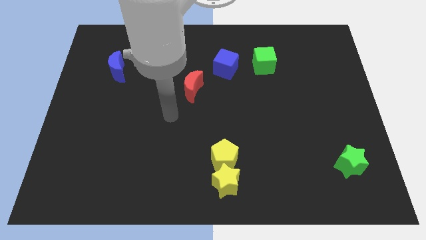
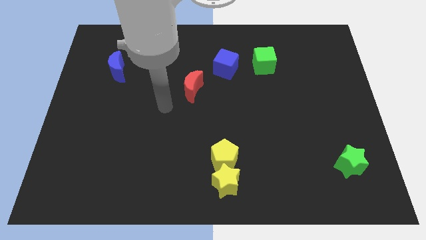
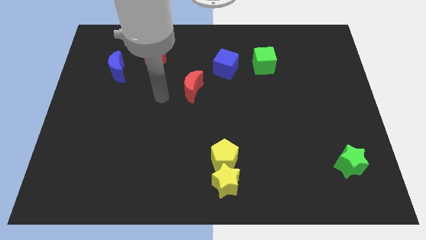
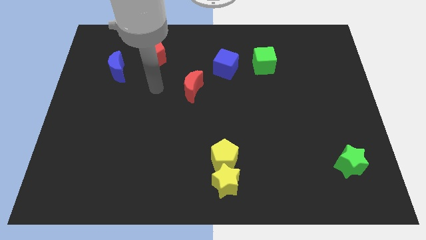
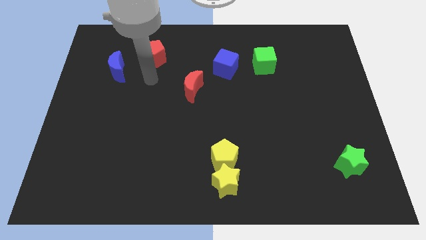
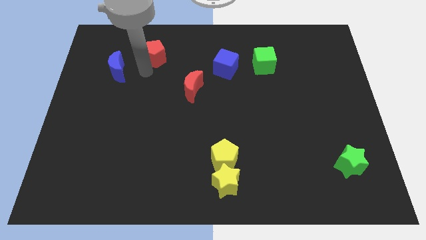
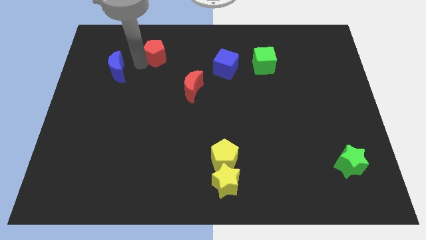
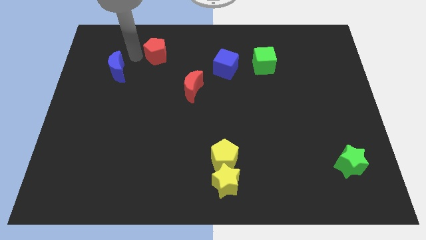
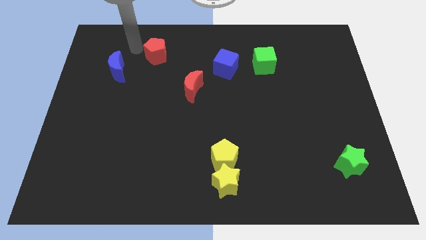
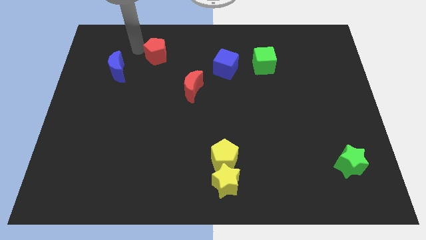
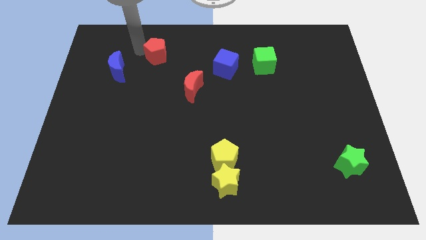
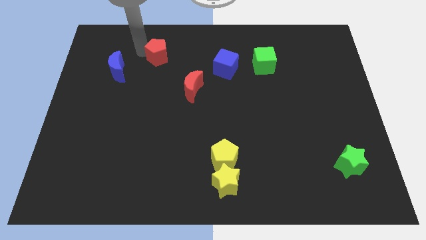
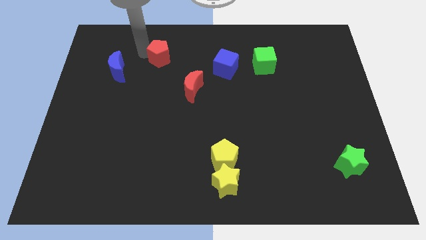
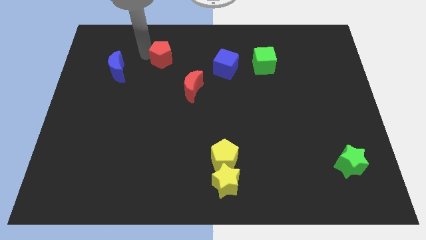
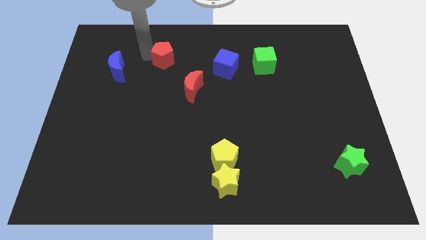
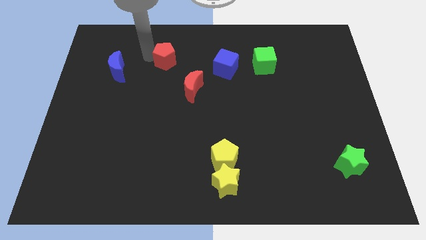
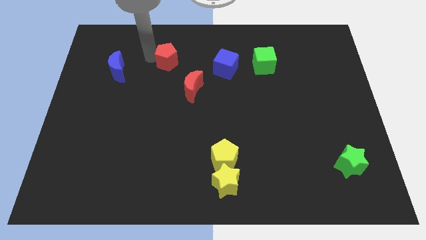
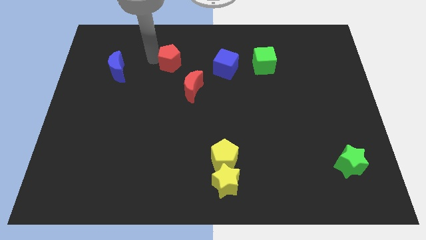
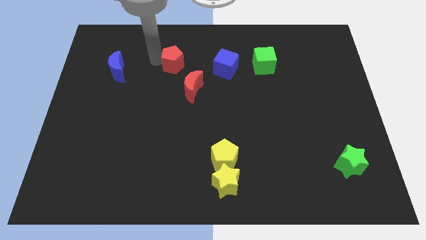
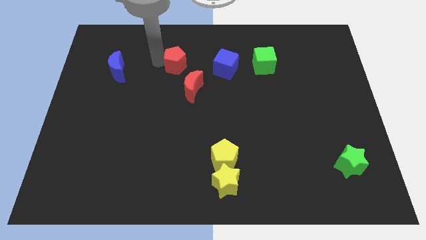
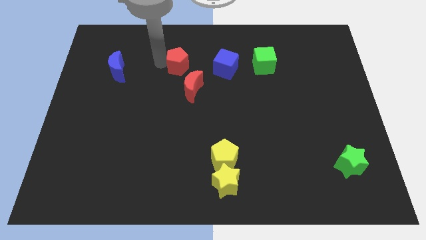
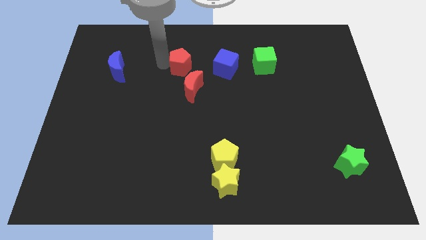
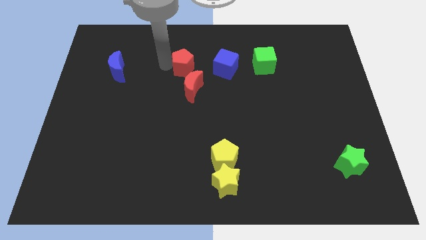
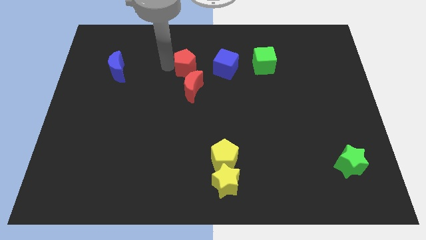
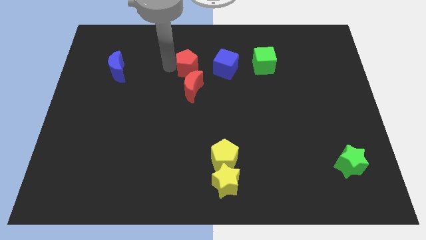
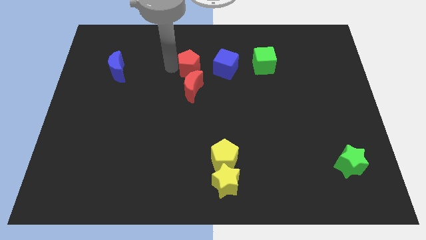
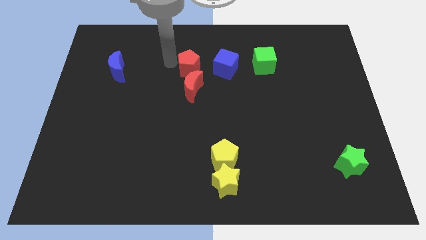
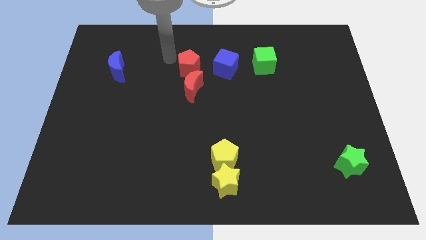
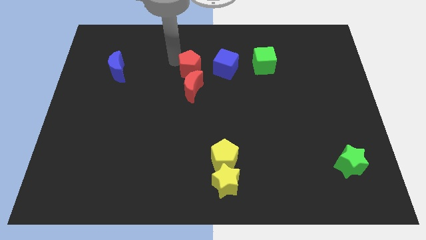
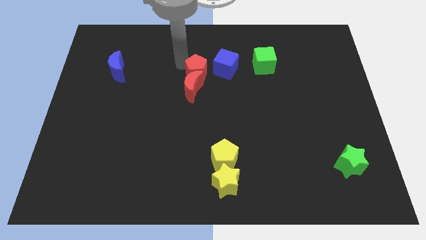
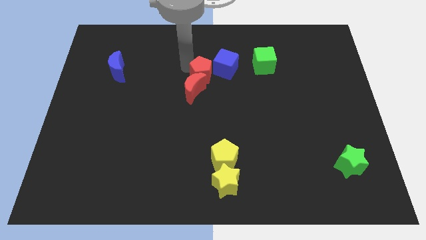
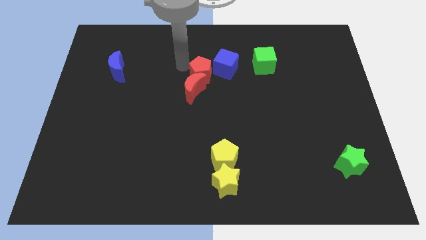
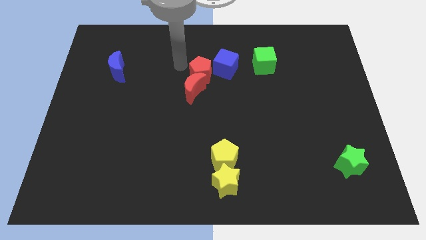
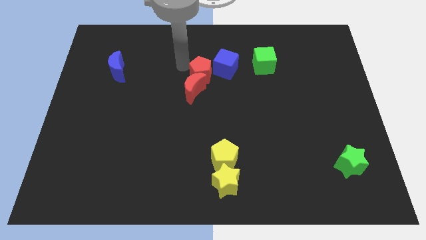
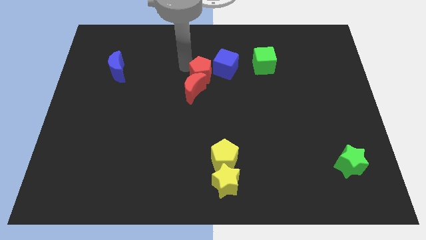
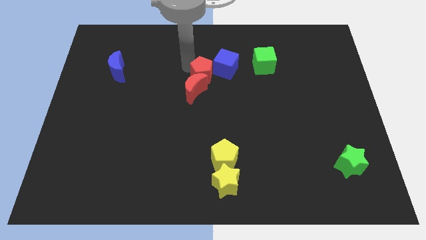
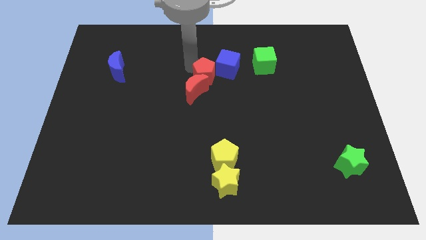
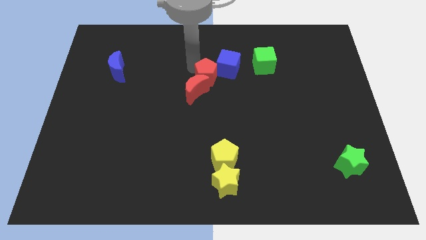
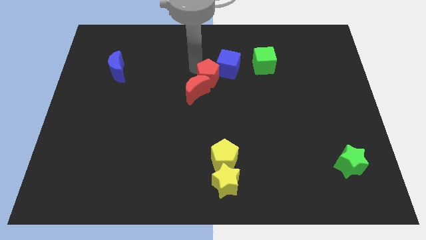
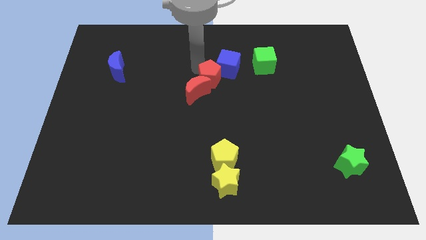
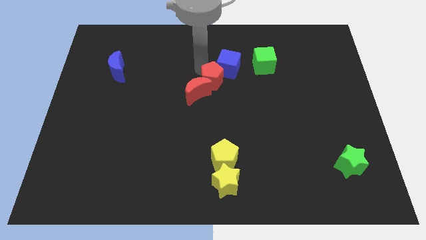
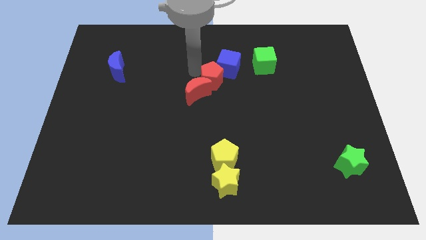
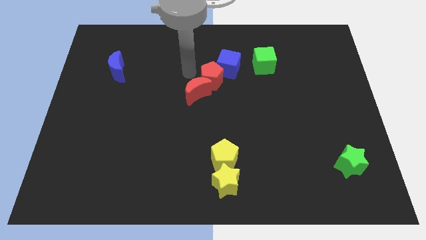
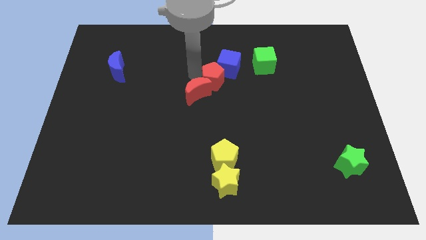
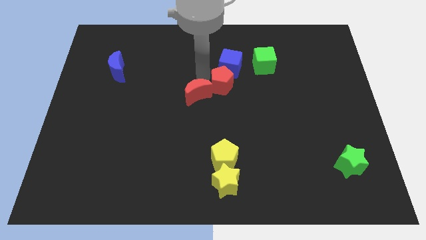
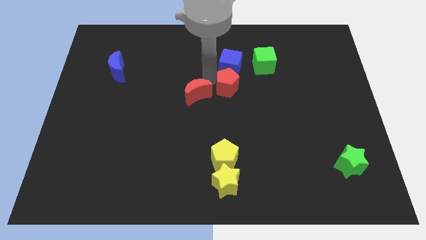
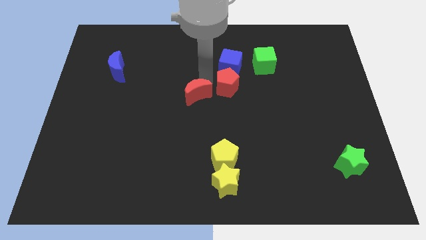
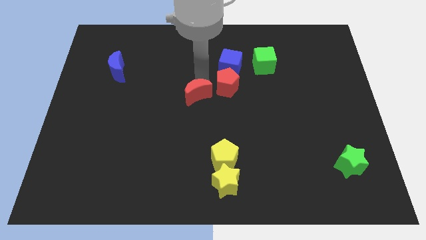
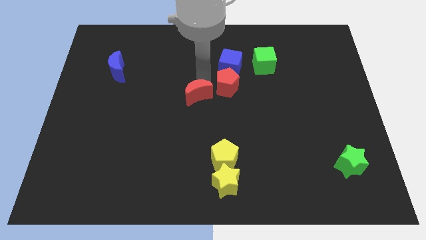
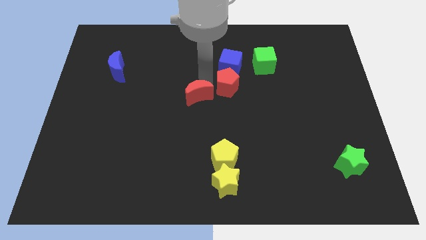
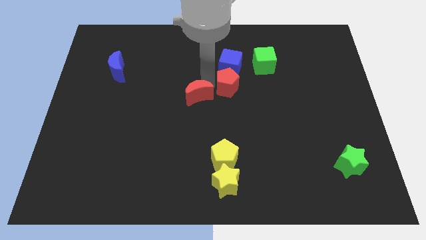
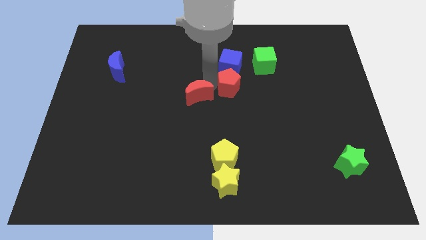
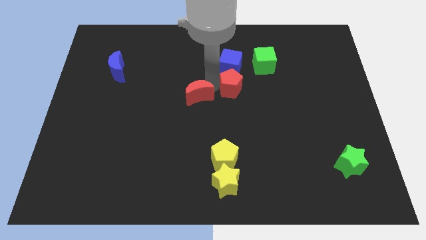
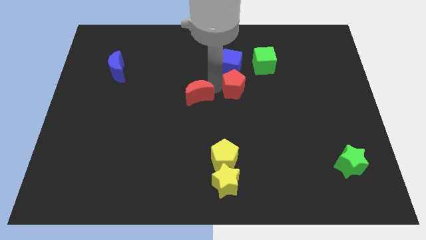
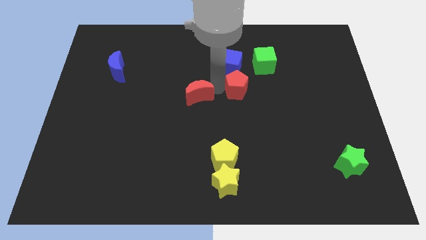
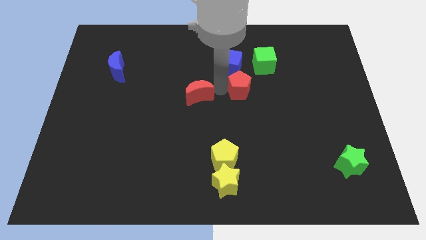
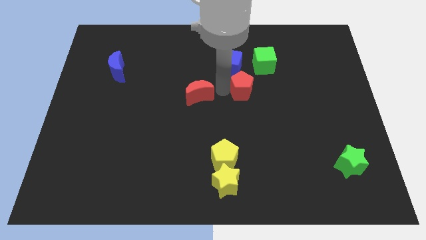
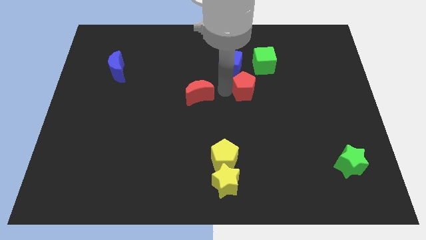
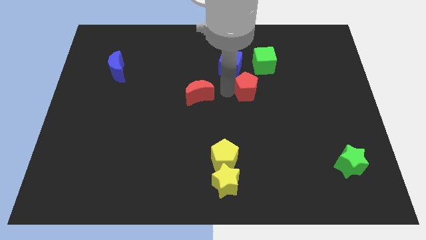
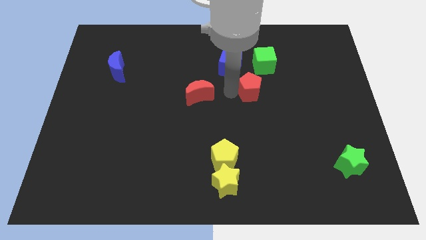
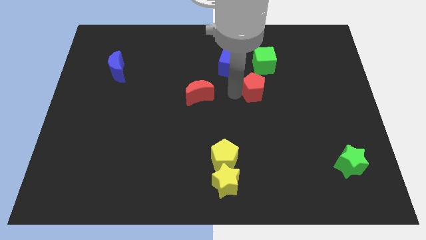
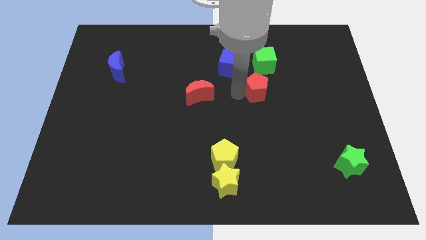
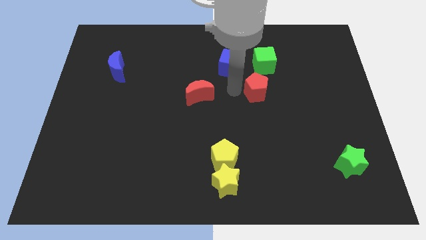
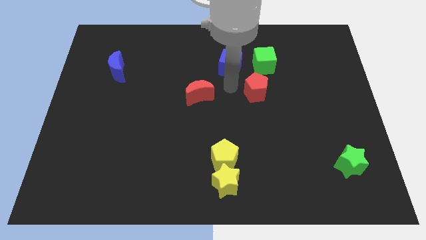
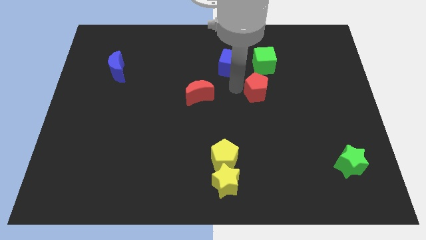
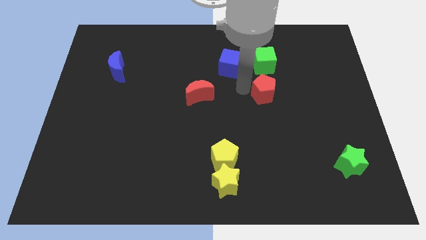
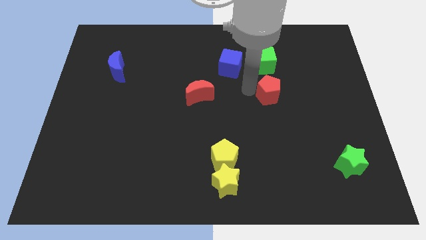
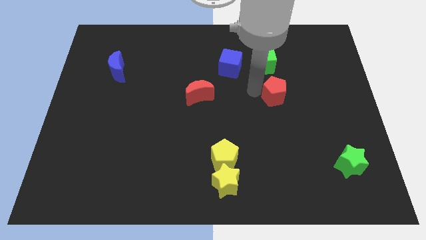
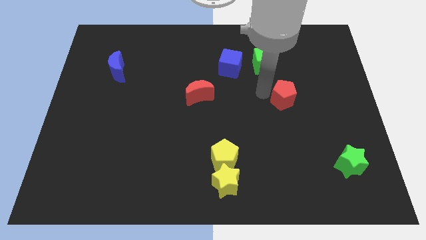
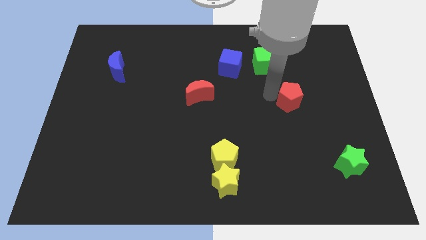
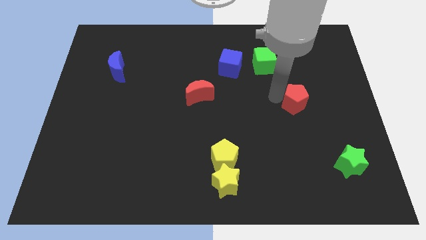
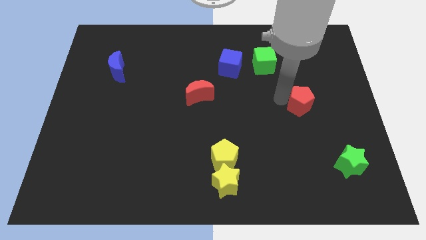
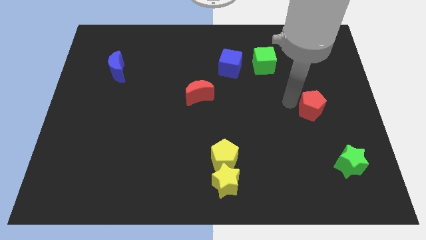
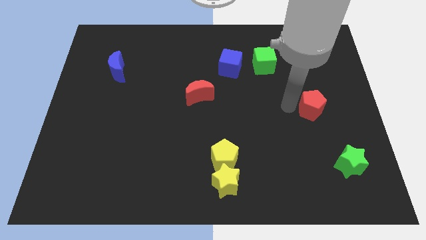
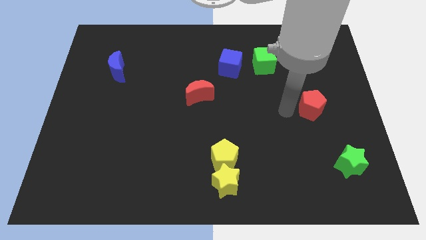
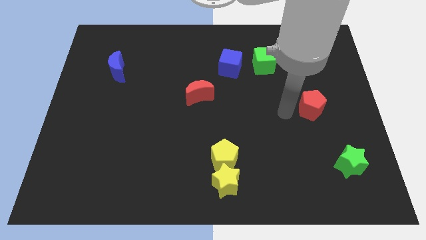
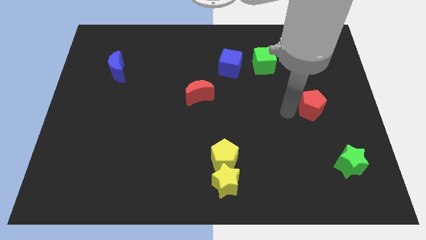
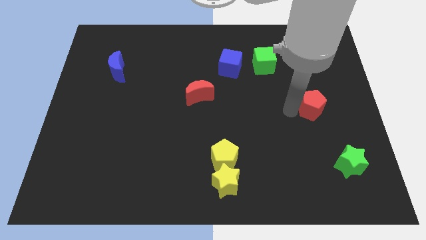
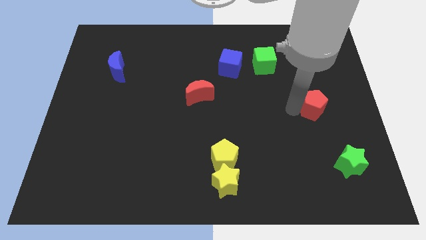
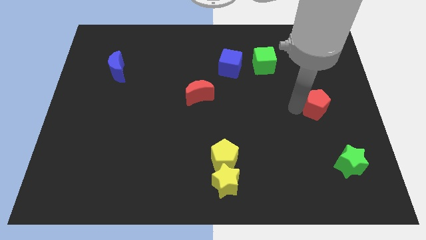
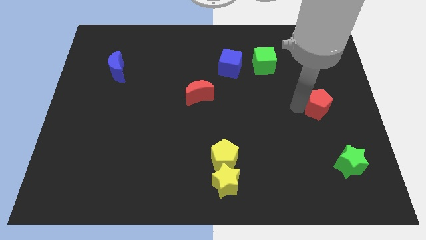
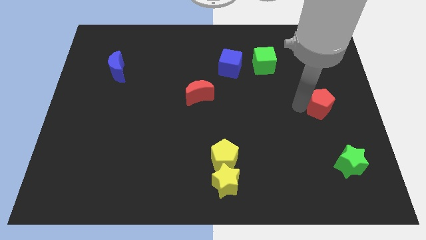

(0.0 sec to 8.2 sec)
put the red pentagon to the right side of the board
